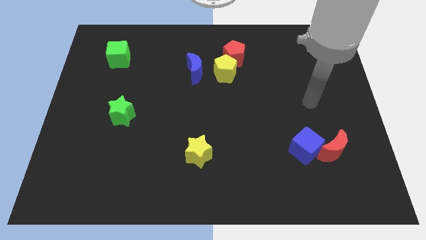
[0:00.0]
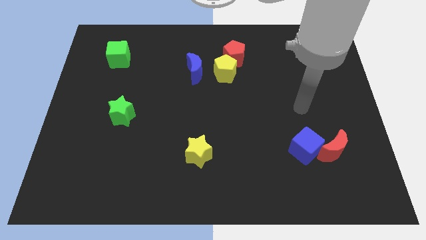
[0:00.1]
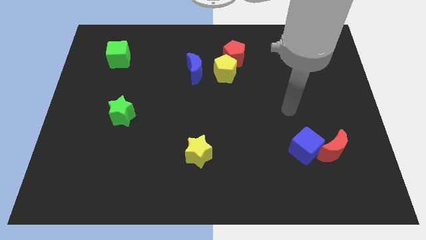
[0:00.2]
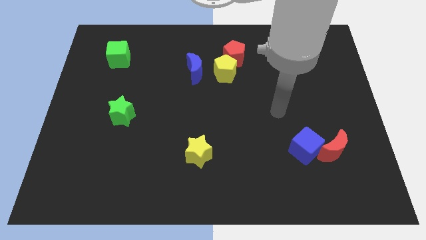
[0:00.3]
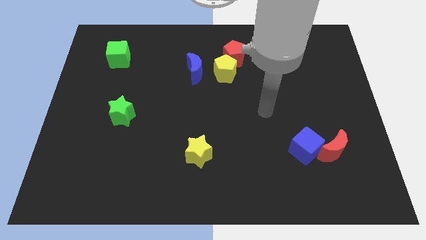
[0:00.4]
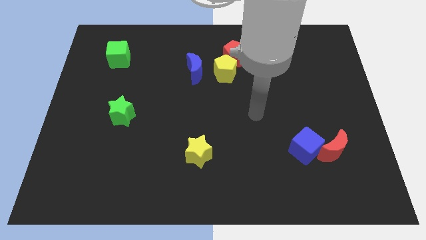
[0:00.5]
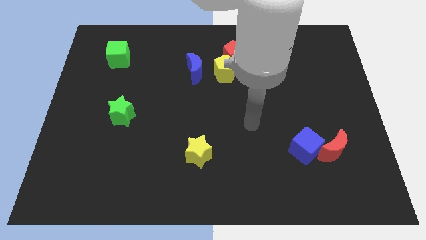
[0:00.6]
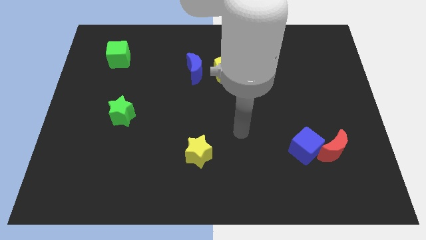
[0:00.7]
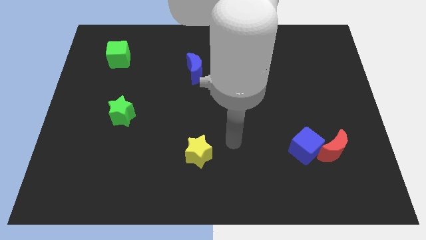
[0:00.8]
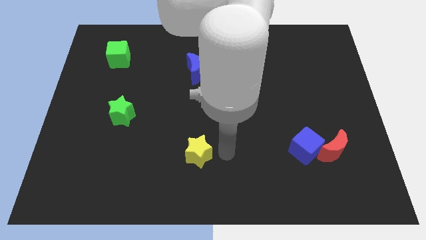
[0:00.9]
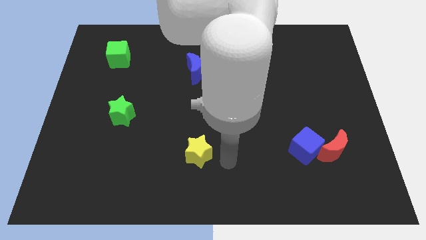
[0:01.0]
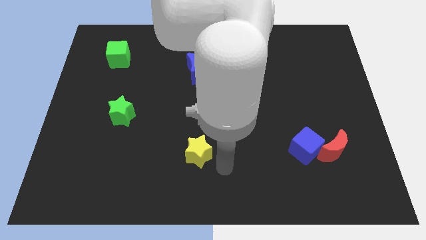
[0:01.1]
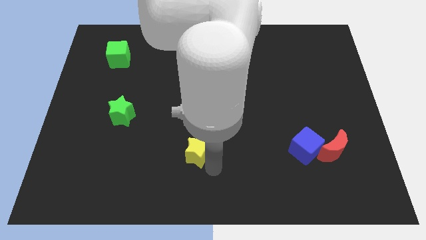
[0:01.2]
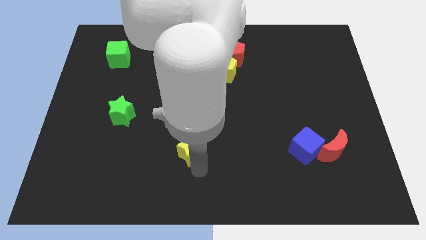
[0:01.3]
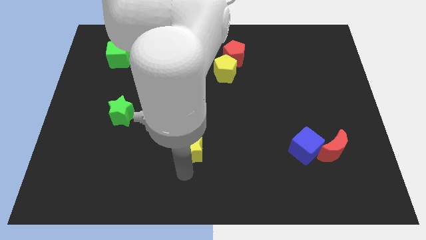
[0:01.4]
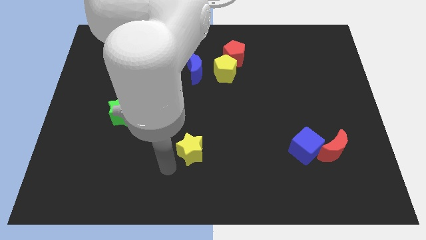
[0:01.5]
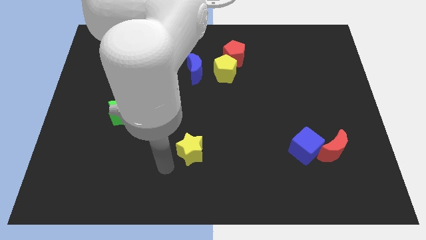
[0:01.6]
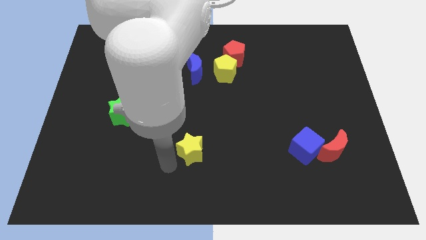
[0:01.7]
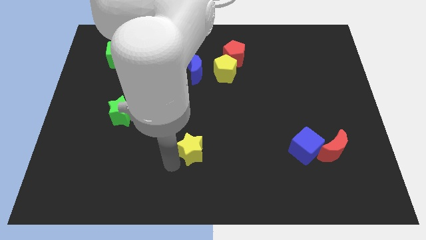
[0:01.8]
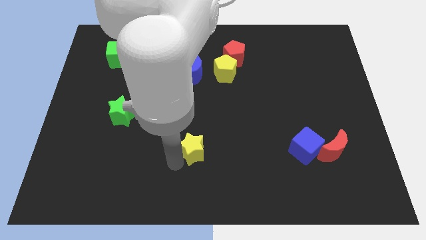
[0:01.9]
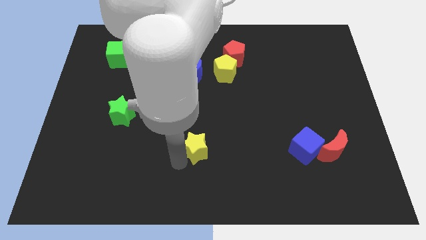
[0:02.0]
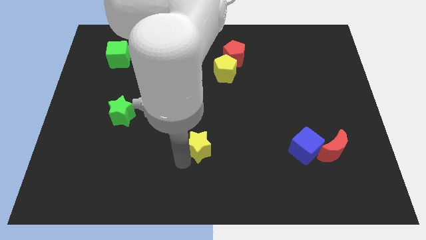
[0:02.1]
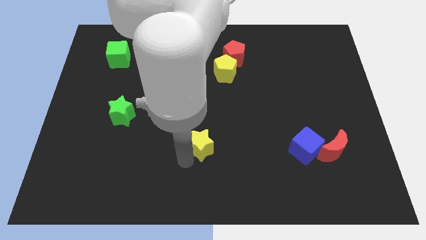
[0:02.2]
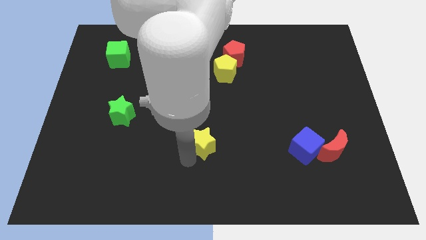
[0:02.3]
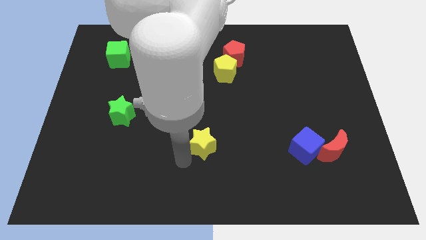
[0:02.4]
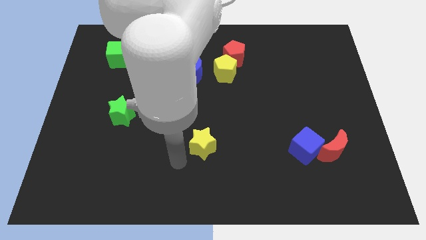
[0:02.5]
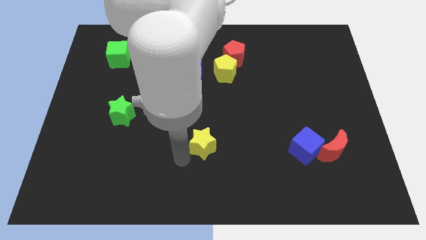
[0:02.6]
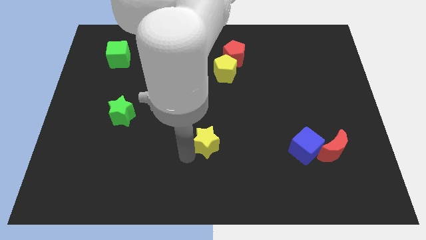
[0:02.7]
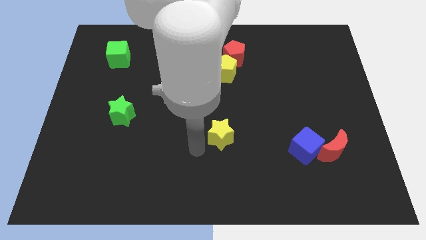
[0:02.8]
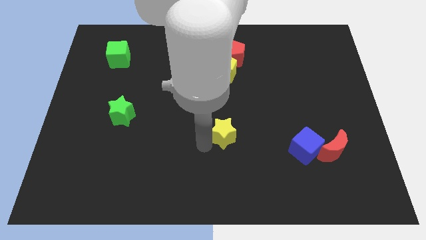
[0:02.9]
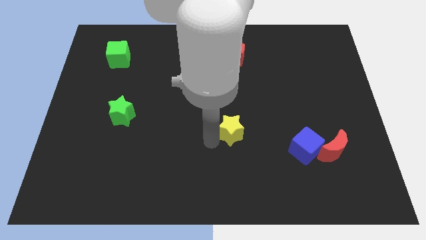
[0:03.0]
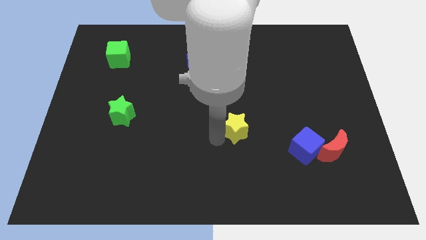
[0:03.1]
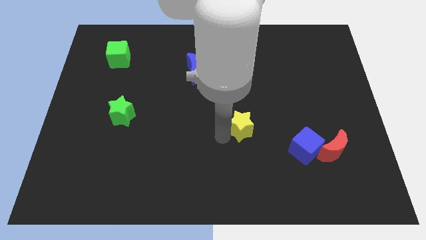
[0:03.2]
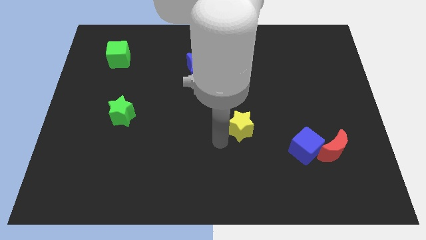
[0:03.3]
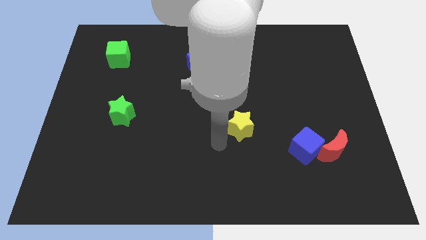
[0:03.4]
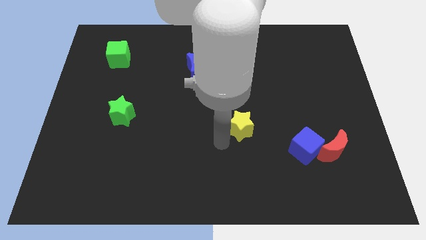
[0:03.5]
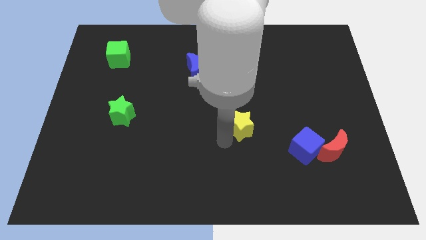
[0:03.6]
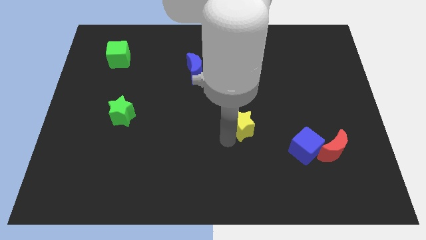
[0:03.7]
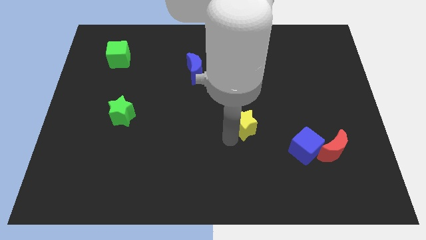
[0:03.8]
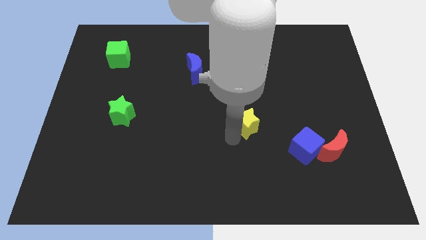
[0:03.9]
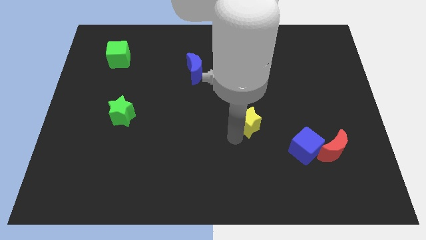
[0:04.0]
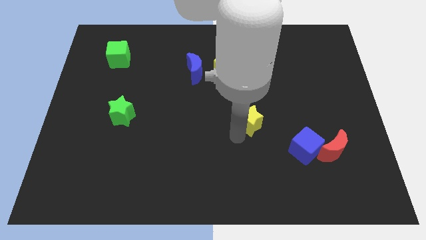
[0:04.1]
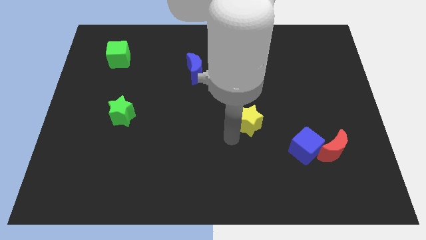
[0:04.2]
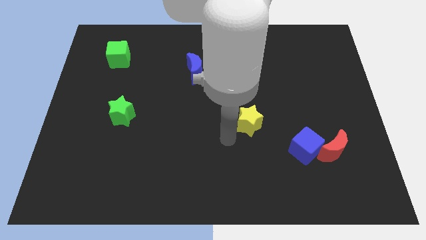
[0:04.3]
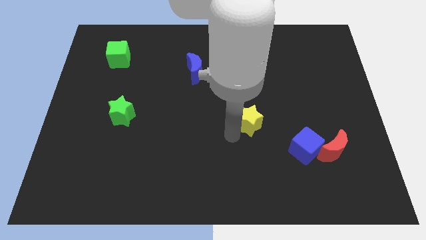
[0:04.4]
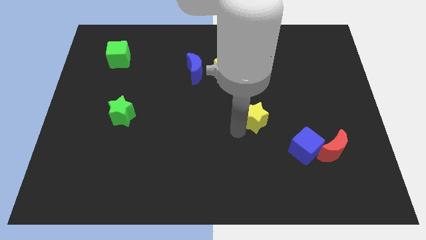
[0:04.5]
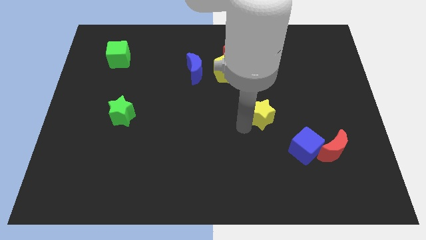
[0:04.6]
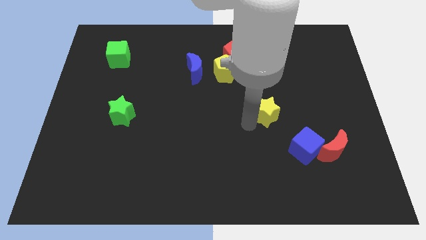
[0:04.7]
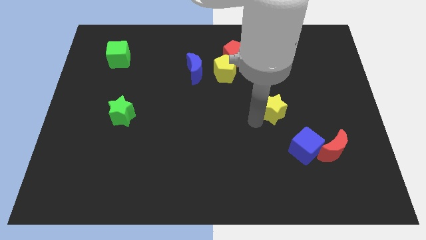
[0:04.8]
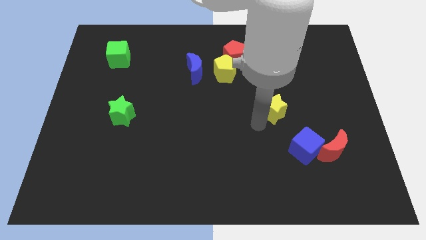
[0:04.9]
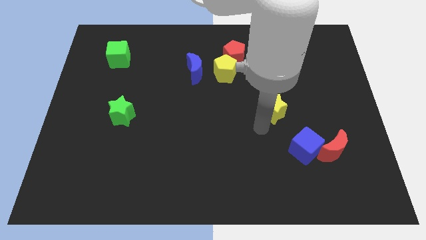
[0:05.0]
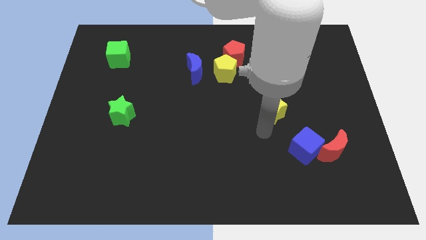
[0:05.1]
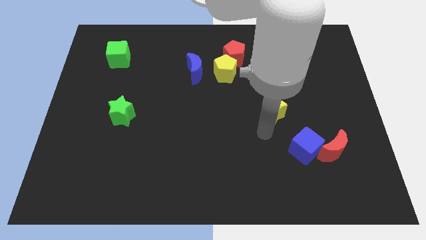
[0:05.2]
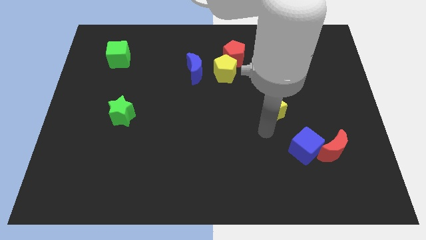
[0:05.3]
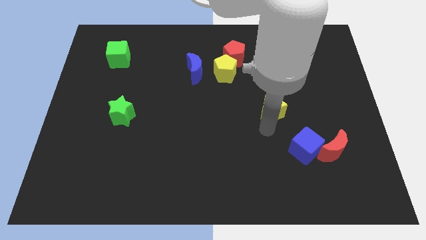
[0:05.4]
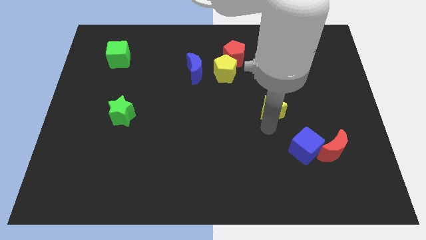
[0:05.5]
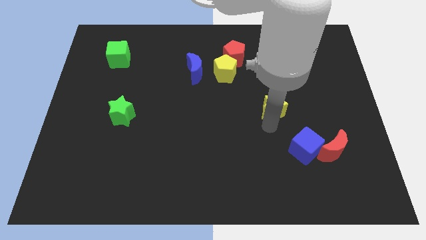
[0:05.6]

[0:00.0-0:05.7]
push the yellow star diagonally upwards and right

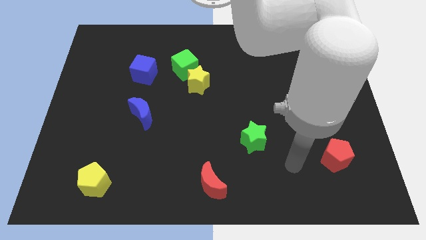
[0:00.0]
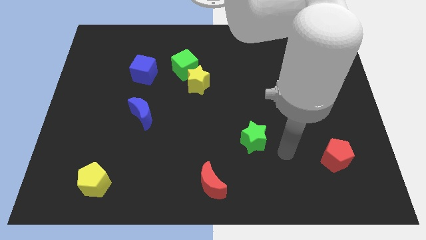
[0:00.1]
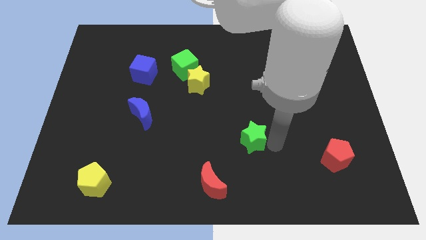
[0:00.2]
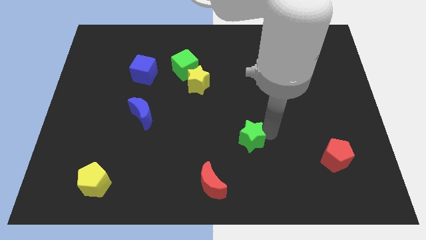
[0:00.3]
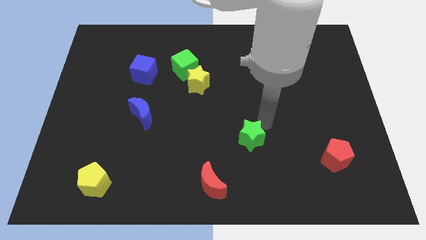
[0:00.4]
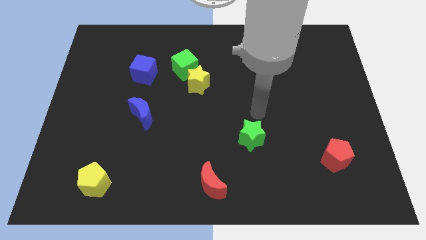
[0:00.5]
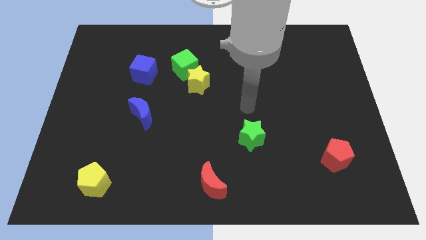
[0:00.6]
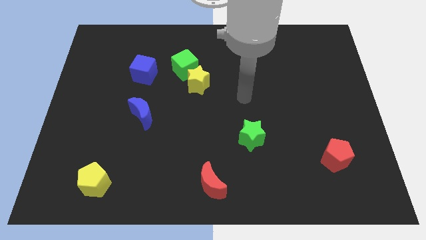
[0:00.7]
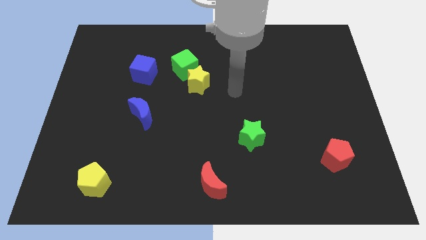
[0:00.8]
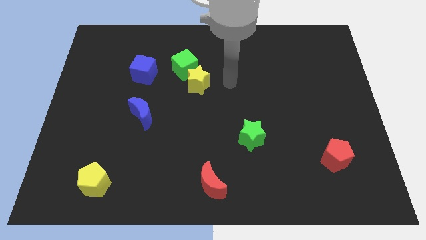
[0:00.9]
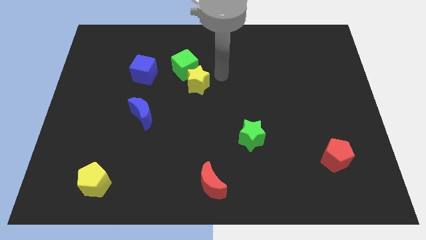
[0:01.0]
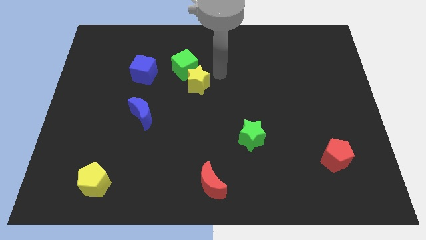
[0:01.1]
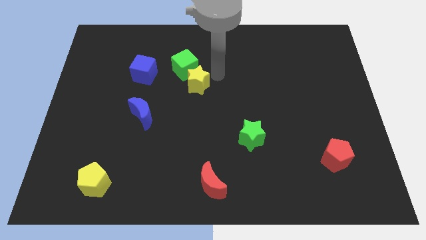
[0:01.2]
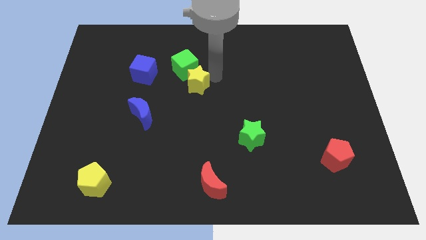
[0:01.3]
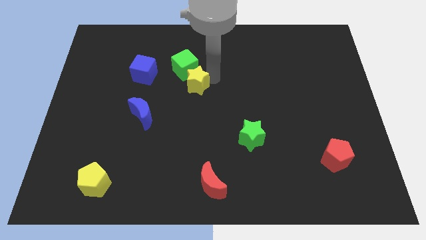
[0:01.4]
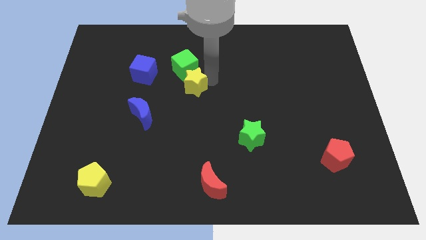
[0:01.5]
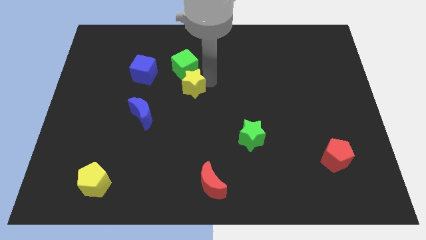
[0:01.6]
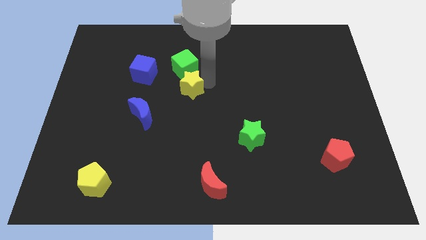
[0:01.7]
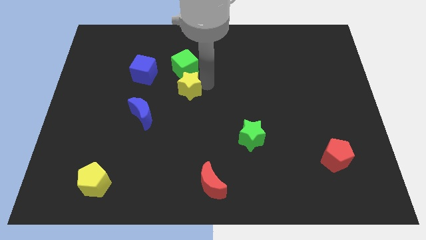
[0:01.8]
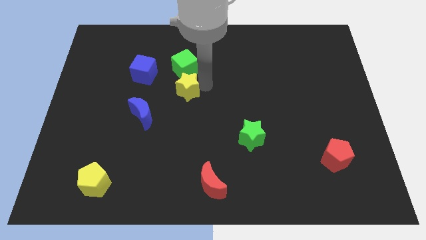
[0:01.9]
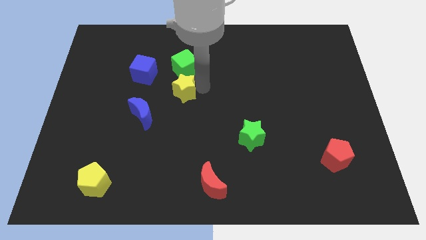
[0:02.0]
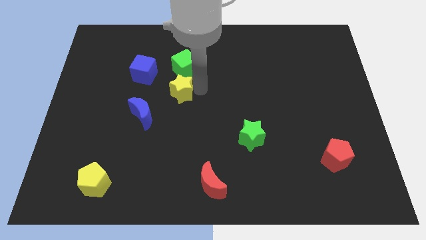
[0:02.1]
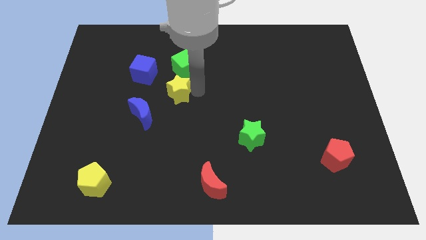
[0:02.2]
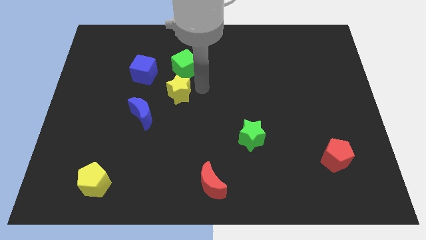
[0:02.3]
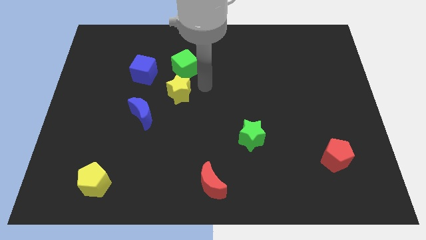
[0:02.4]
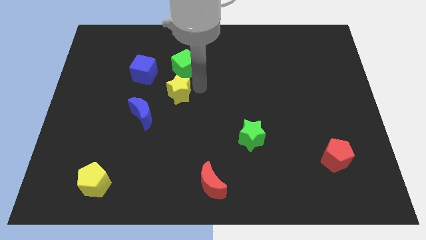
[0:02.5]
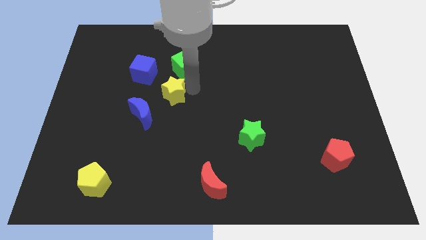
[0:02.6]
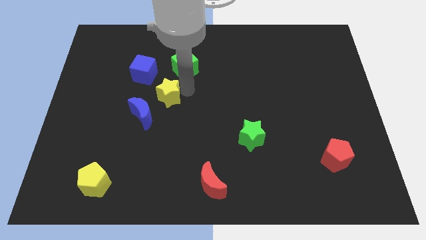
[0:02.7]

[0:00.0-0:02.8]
slightly slide the yellow star down and left diagonally
